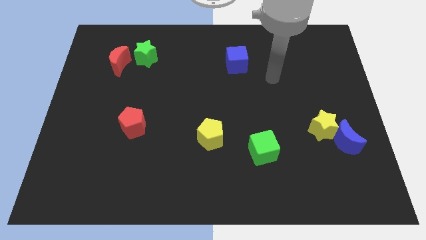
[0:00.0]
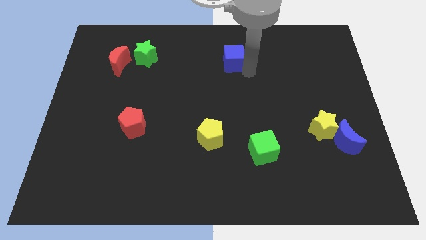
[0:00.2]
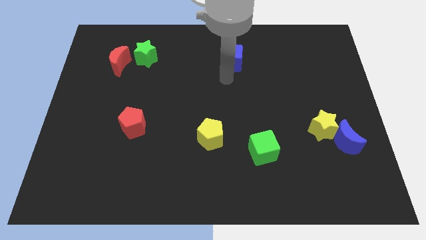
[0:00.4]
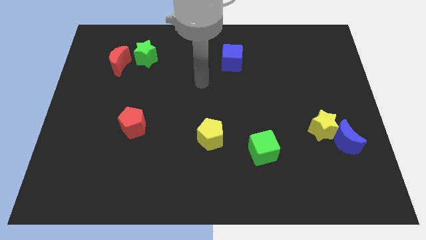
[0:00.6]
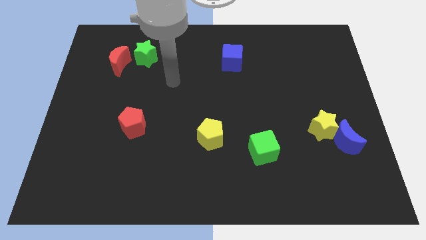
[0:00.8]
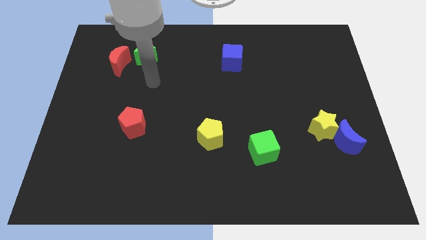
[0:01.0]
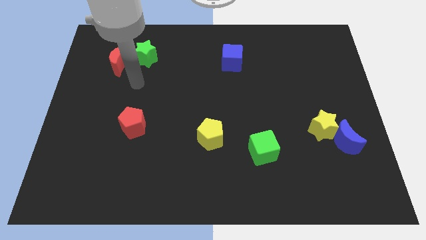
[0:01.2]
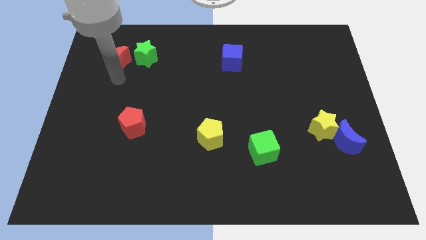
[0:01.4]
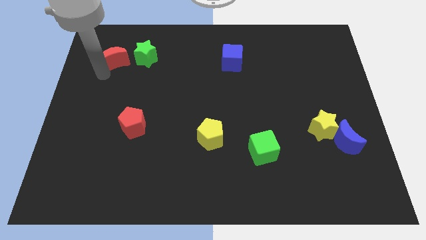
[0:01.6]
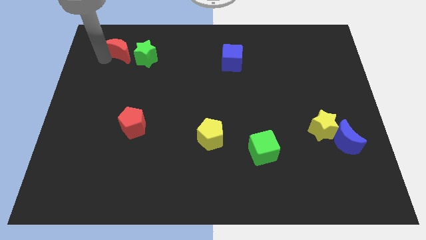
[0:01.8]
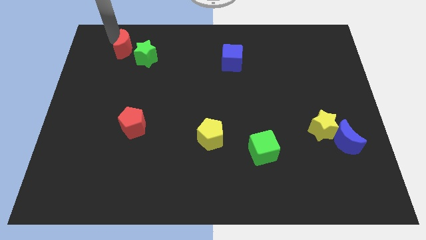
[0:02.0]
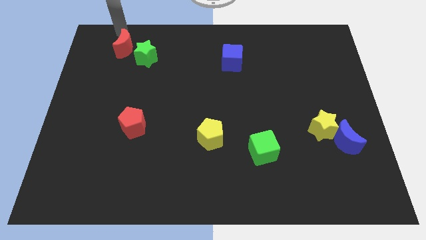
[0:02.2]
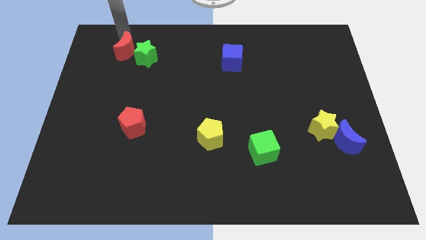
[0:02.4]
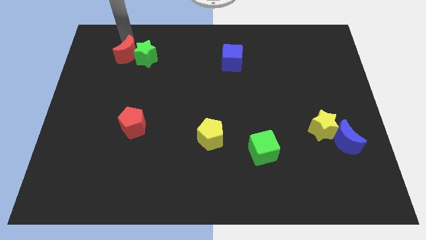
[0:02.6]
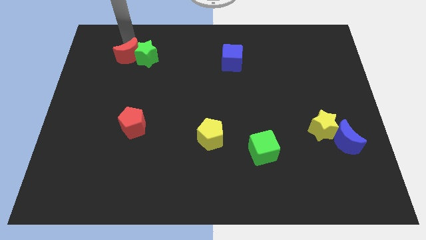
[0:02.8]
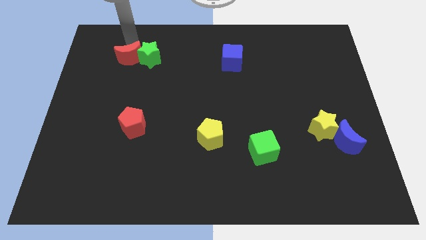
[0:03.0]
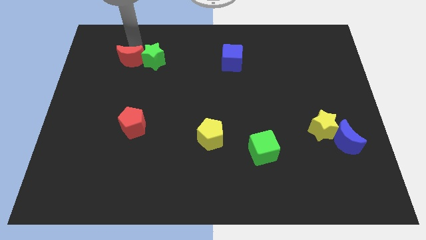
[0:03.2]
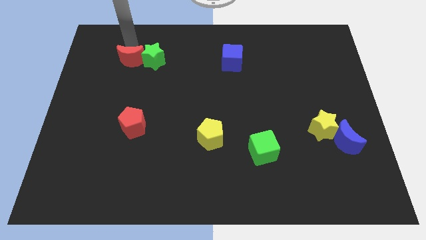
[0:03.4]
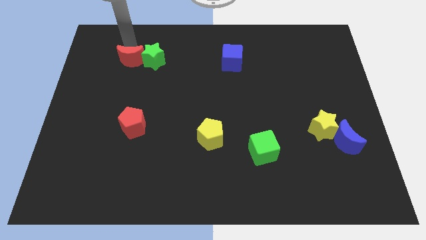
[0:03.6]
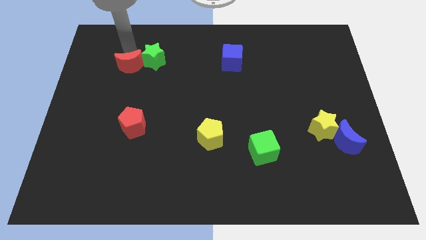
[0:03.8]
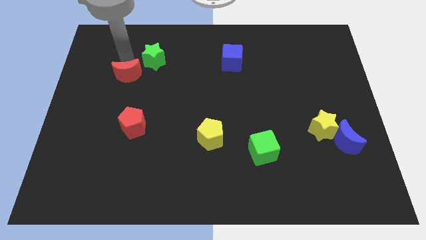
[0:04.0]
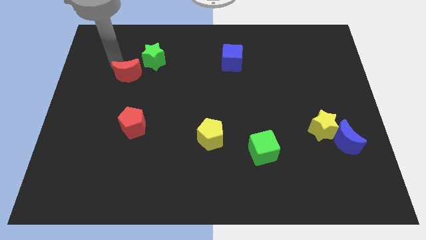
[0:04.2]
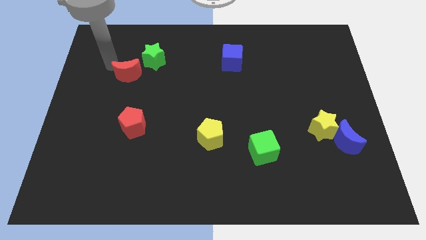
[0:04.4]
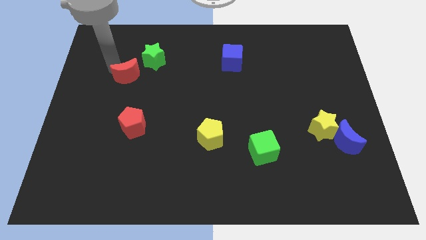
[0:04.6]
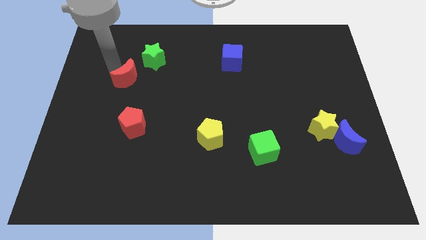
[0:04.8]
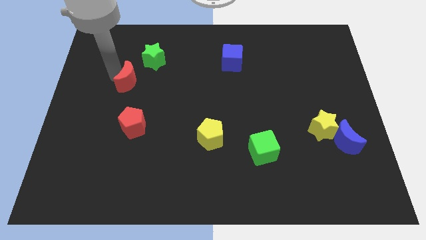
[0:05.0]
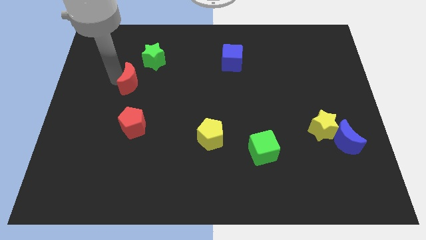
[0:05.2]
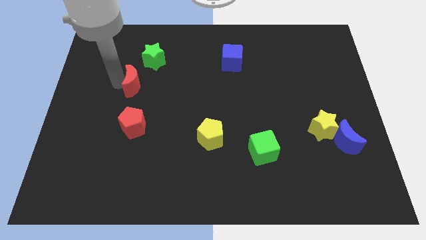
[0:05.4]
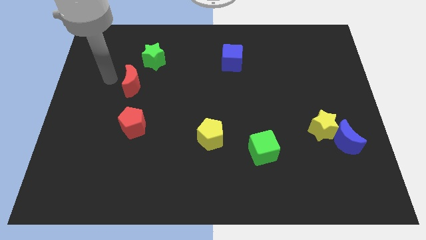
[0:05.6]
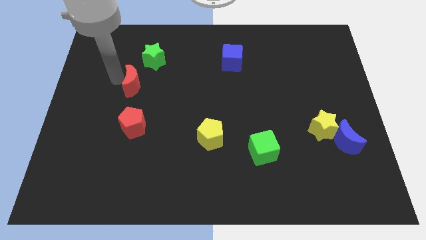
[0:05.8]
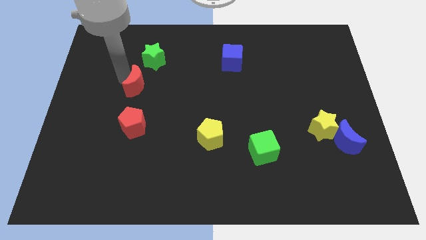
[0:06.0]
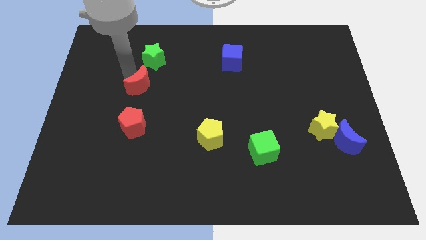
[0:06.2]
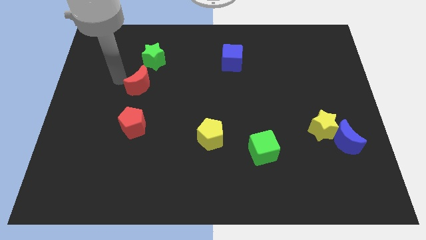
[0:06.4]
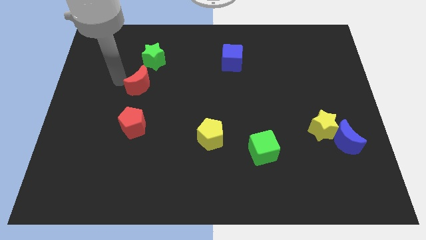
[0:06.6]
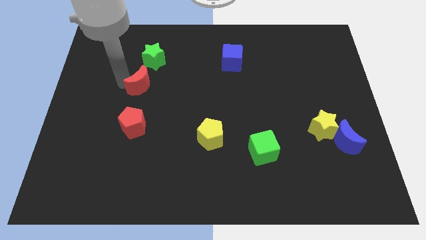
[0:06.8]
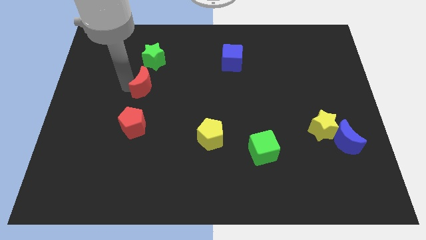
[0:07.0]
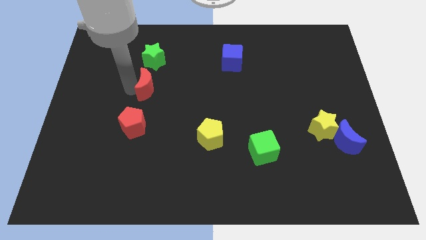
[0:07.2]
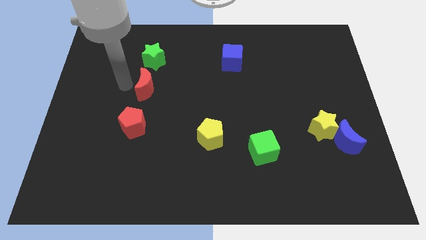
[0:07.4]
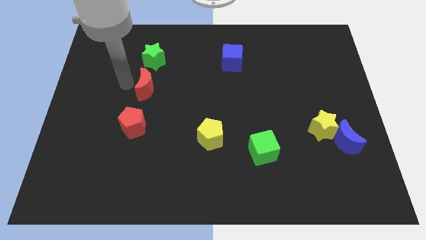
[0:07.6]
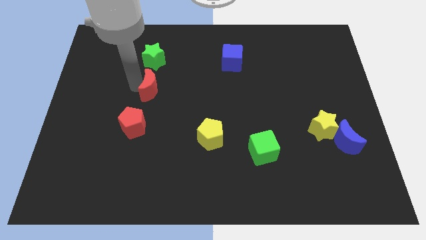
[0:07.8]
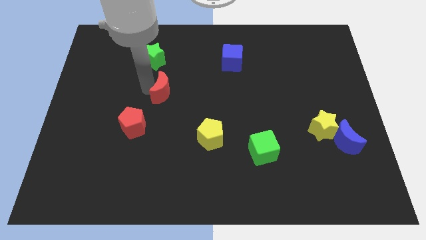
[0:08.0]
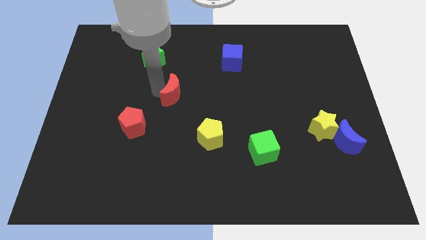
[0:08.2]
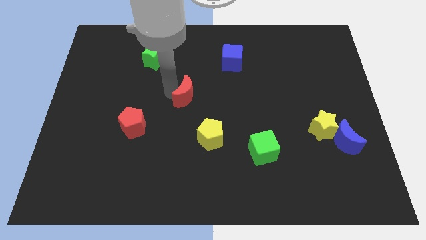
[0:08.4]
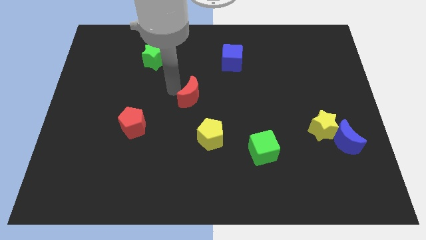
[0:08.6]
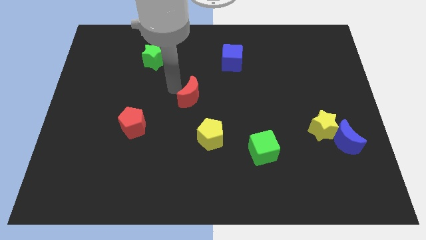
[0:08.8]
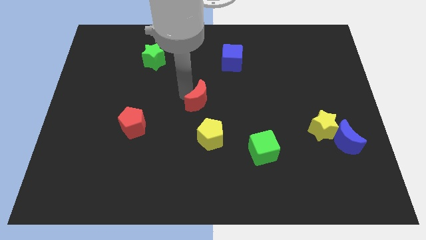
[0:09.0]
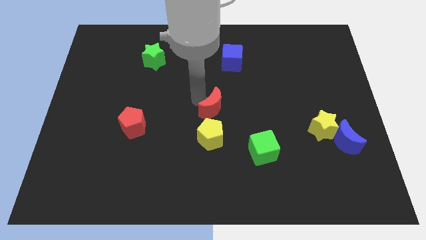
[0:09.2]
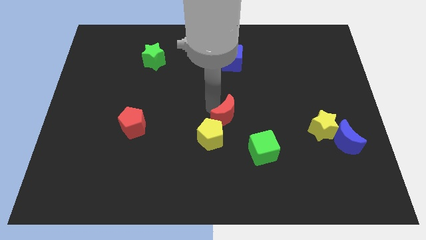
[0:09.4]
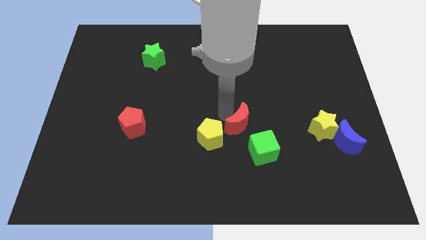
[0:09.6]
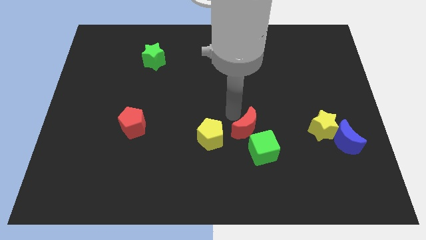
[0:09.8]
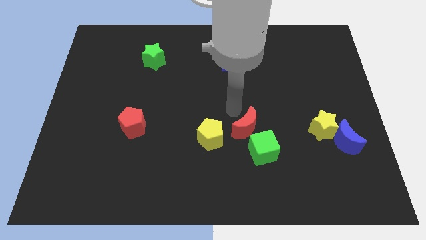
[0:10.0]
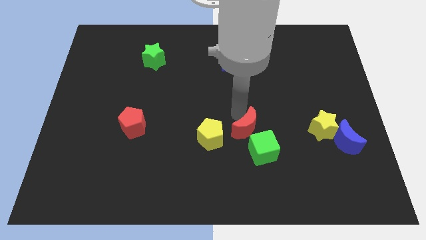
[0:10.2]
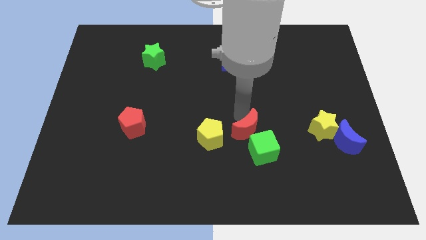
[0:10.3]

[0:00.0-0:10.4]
push the red moon next to the green cube

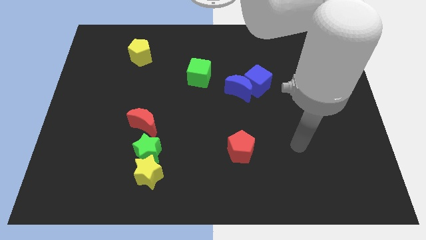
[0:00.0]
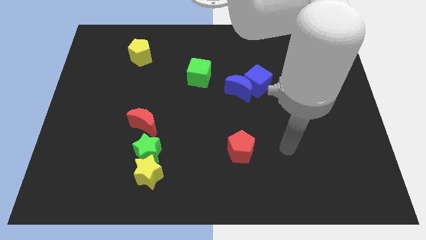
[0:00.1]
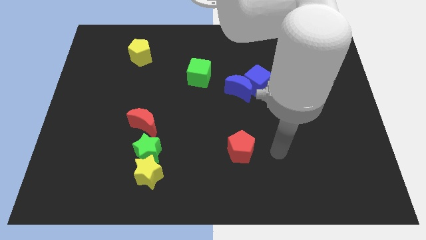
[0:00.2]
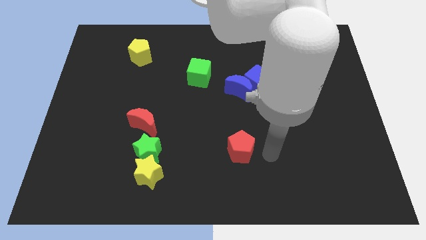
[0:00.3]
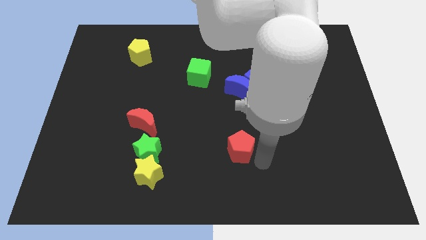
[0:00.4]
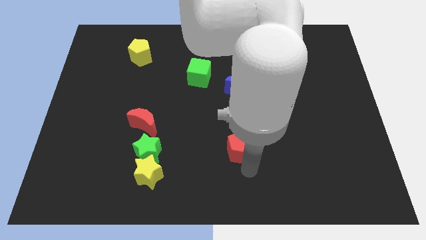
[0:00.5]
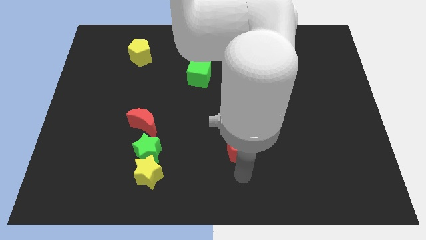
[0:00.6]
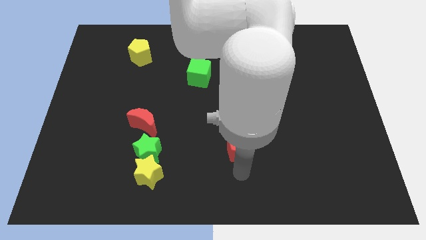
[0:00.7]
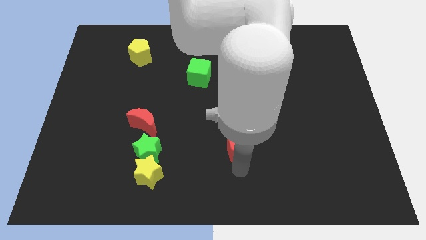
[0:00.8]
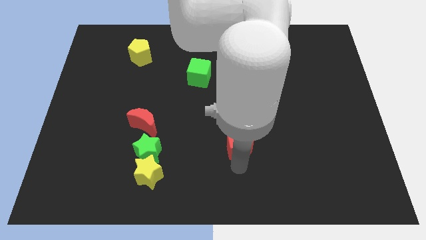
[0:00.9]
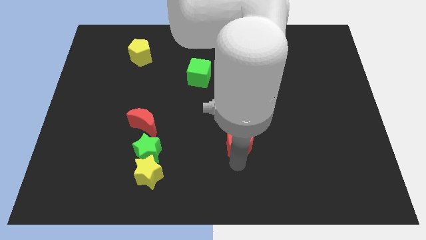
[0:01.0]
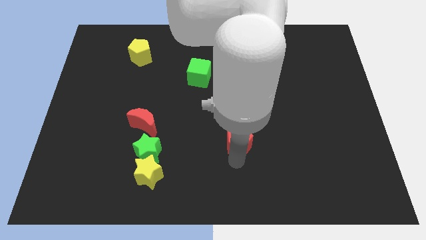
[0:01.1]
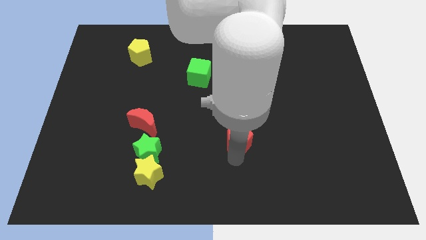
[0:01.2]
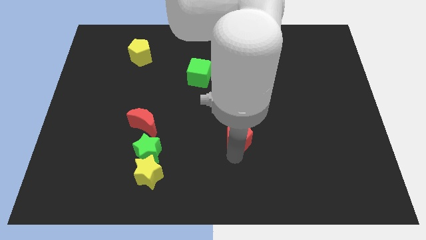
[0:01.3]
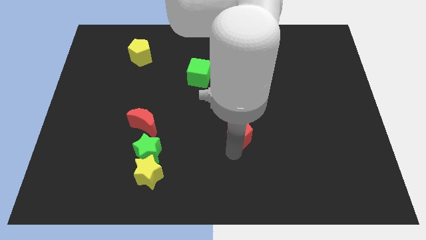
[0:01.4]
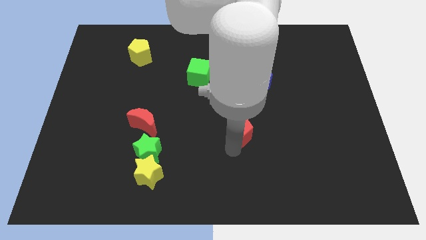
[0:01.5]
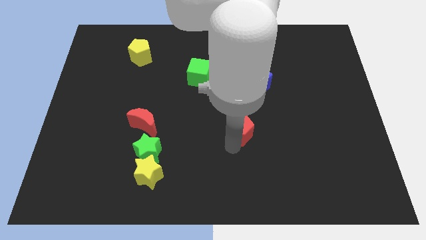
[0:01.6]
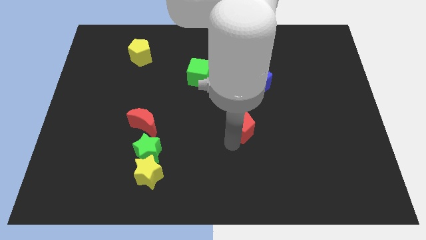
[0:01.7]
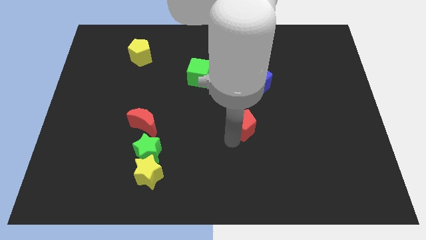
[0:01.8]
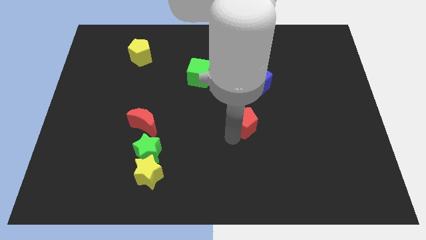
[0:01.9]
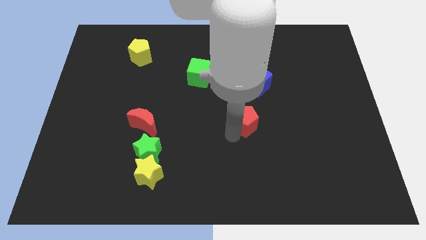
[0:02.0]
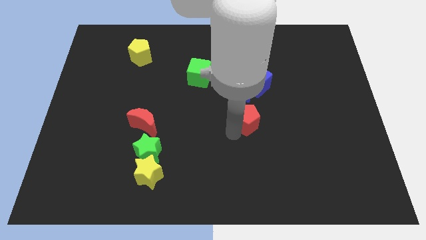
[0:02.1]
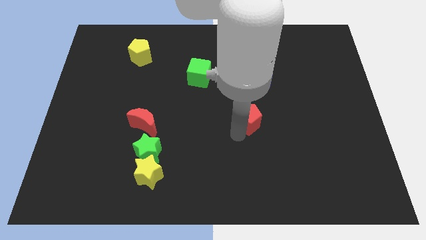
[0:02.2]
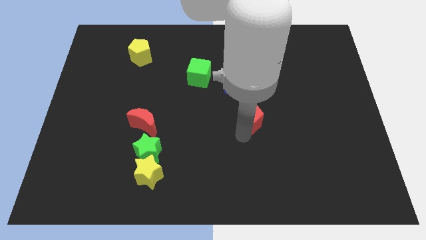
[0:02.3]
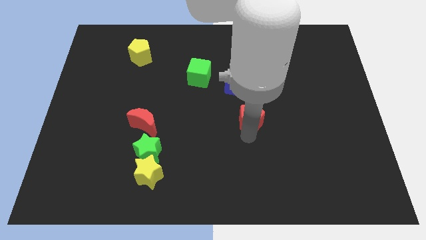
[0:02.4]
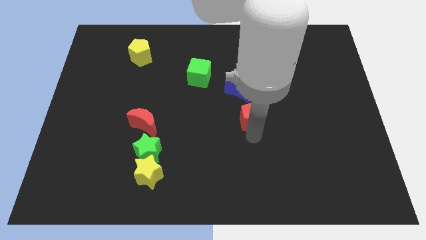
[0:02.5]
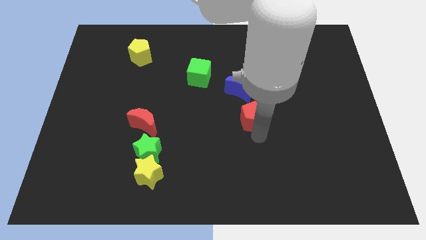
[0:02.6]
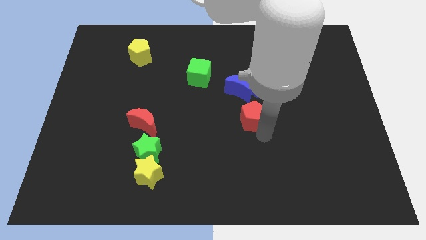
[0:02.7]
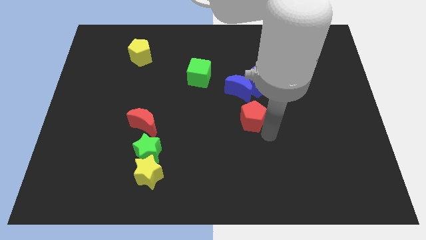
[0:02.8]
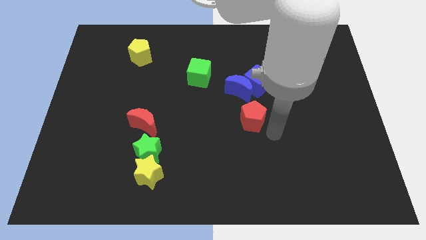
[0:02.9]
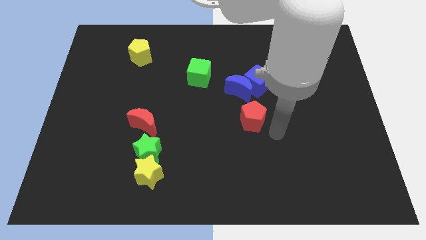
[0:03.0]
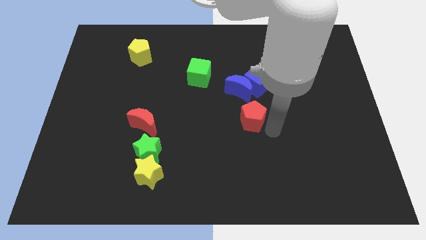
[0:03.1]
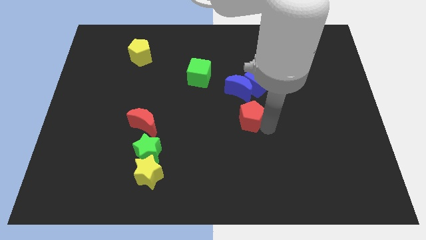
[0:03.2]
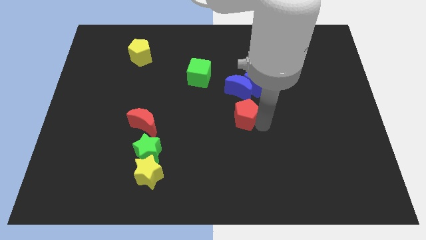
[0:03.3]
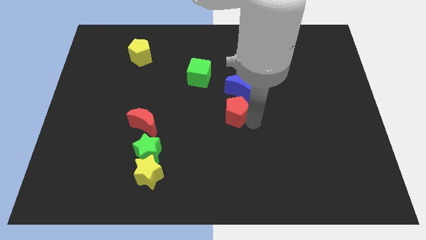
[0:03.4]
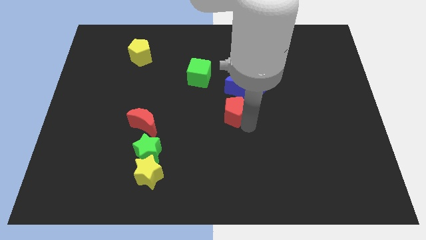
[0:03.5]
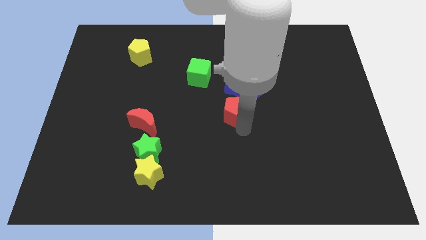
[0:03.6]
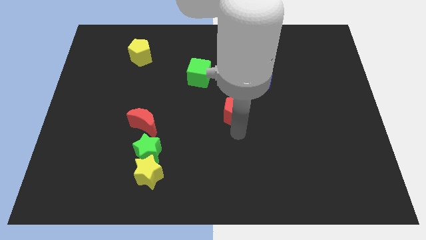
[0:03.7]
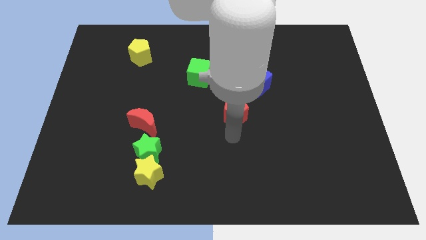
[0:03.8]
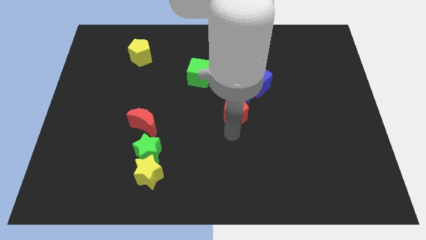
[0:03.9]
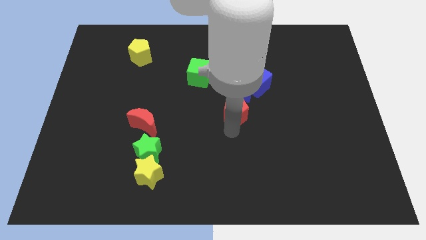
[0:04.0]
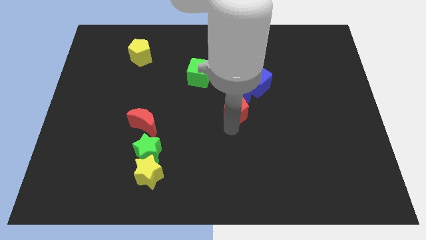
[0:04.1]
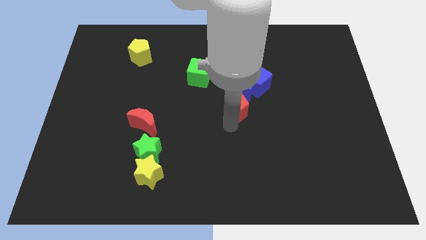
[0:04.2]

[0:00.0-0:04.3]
move the red pentagon towards the blue moon
